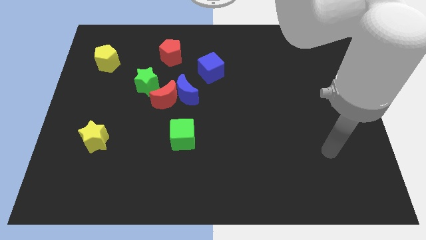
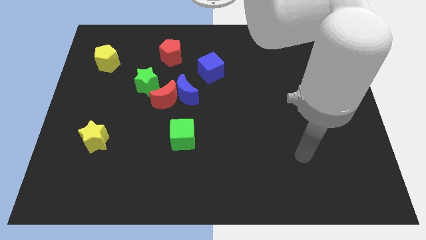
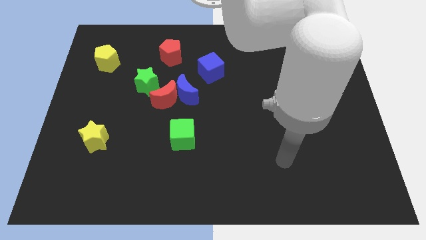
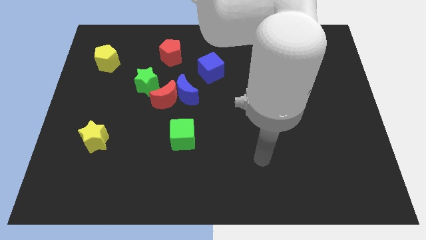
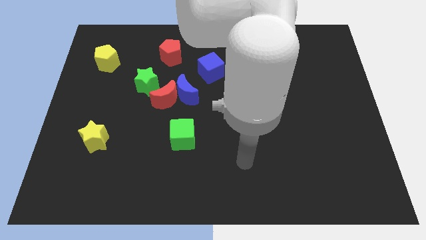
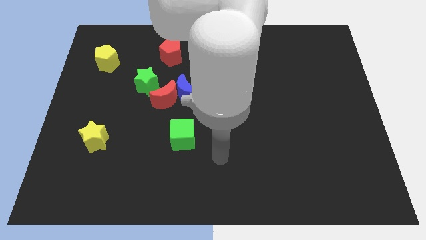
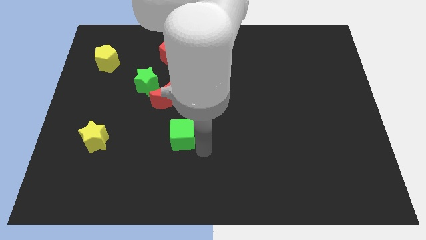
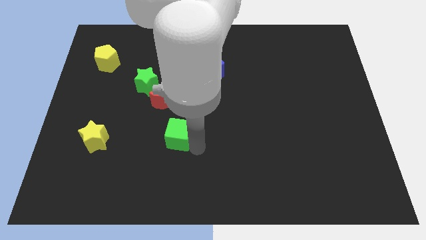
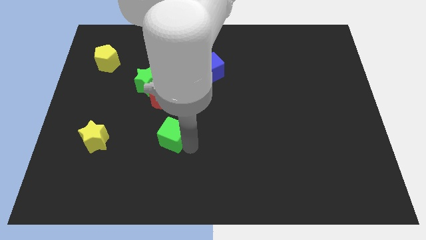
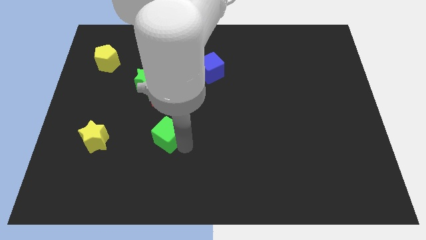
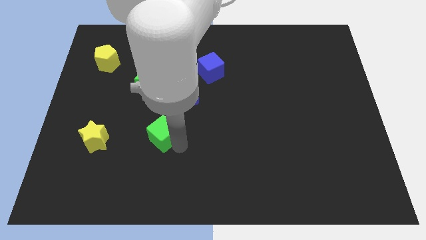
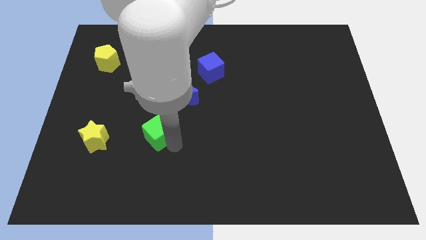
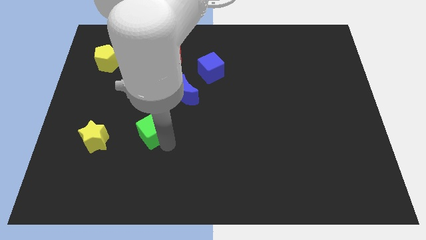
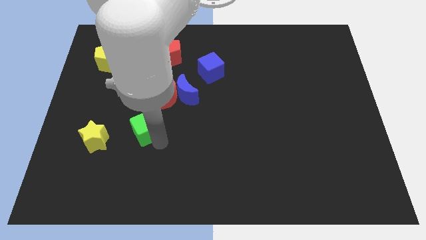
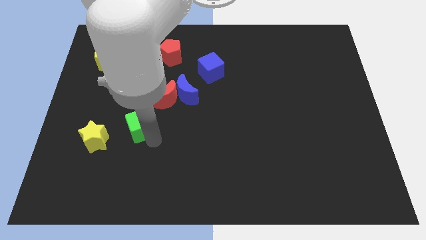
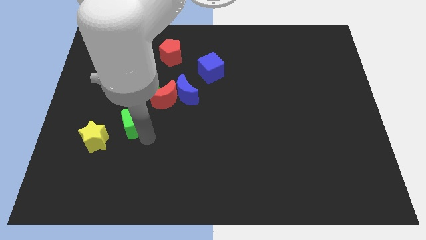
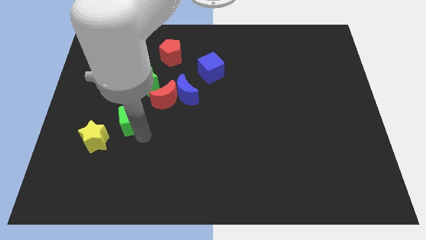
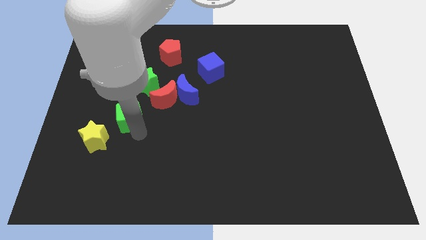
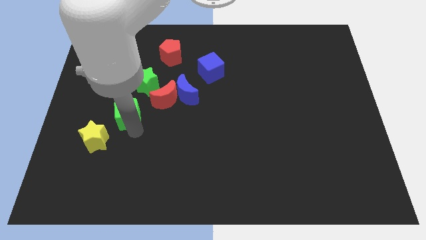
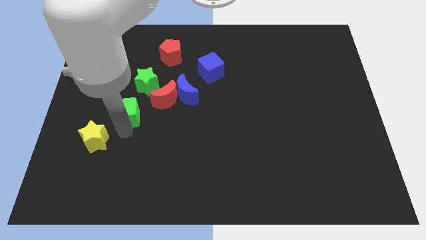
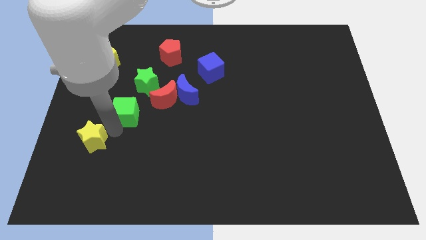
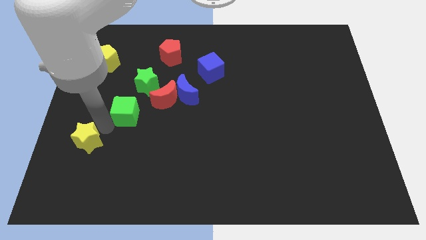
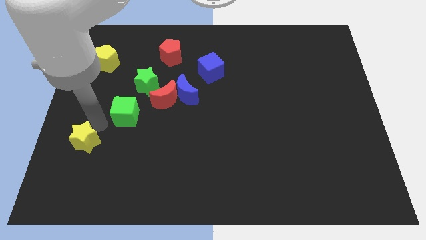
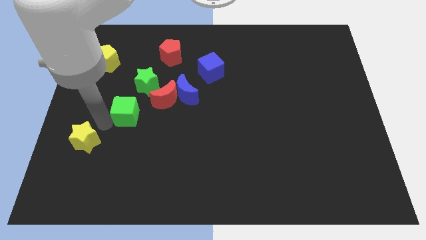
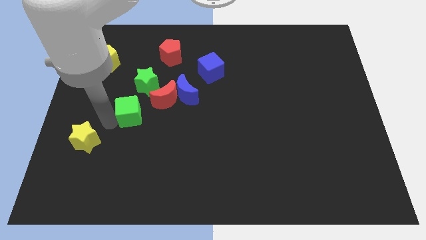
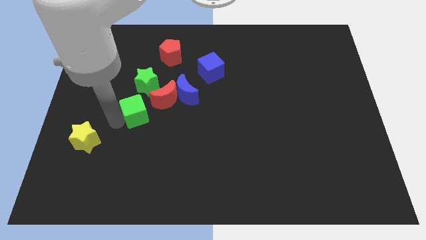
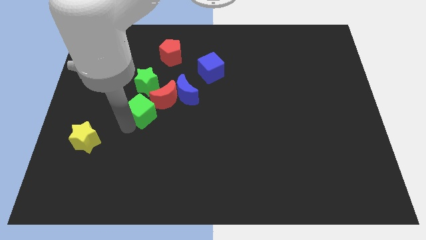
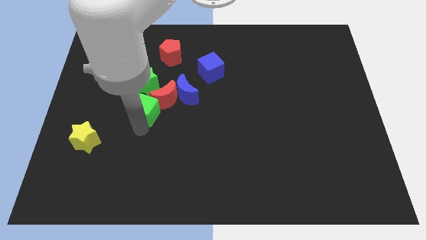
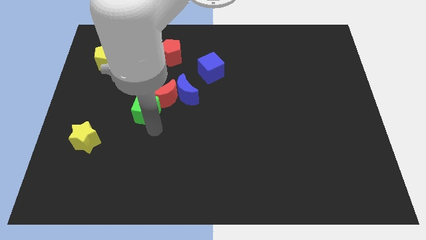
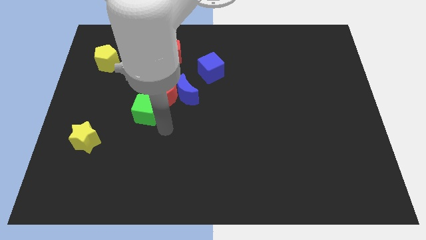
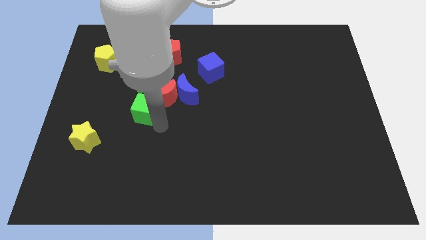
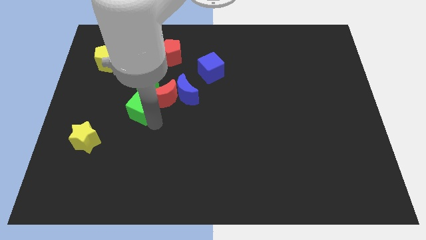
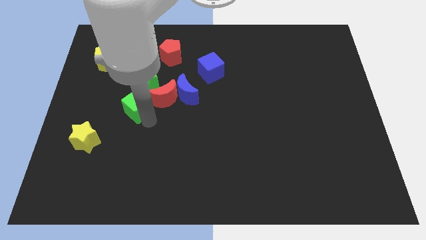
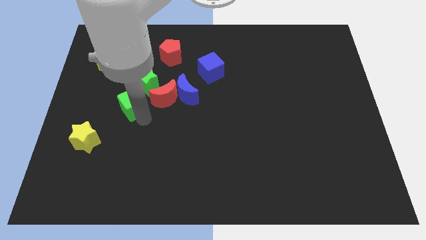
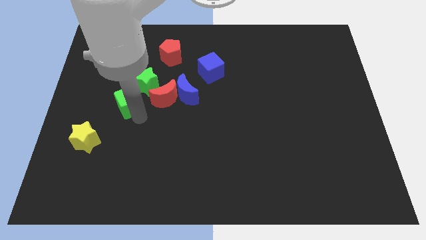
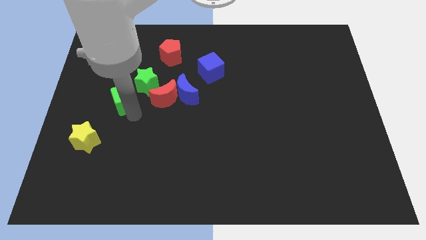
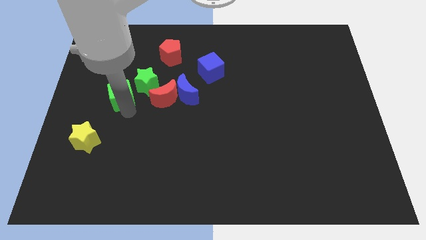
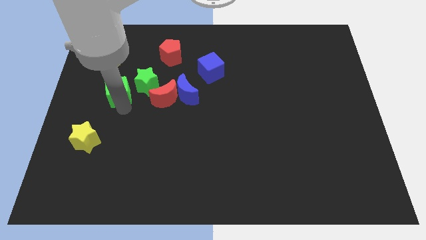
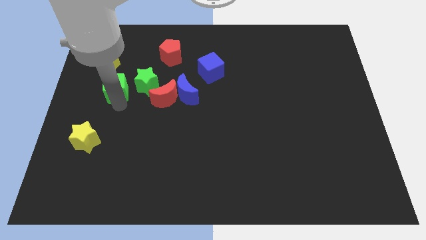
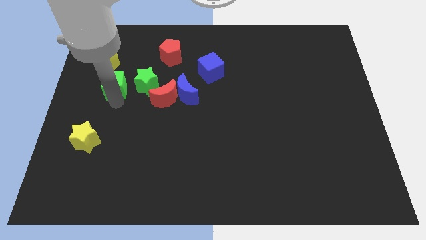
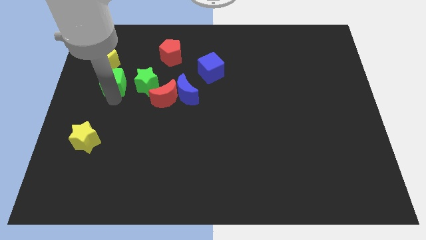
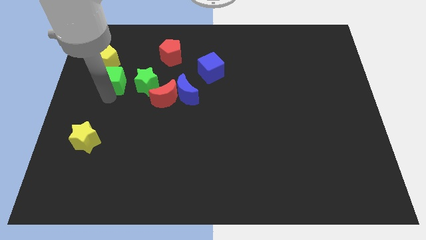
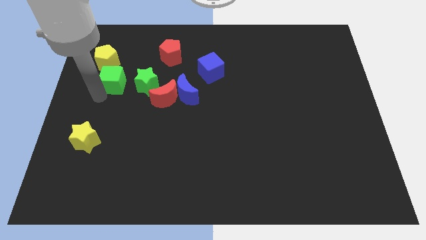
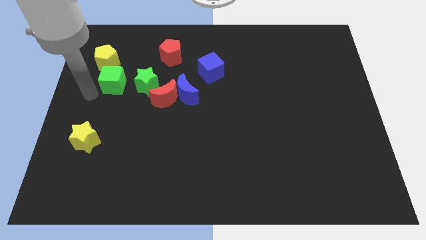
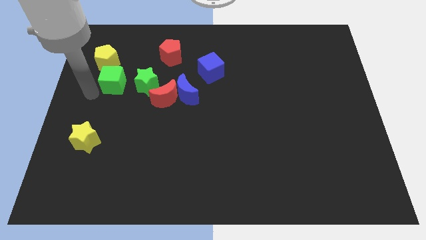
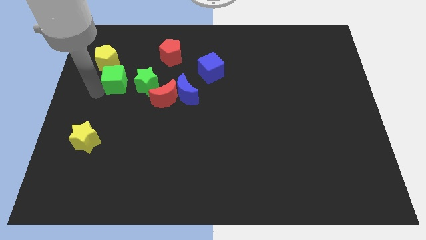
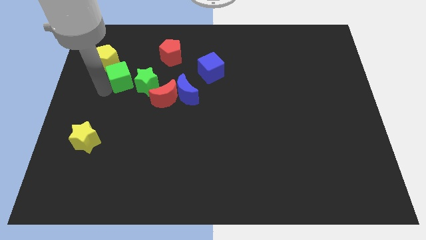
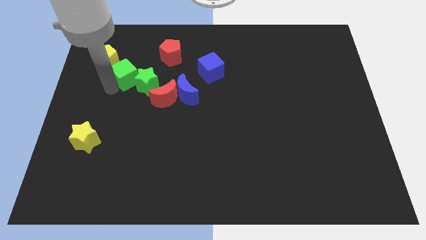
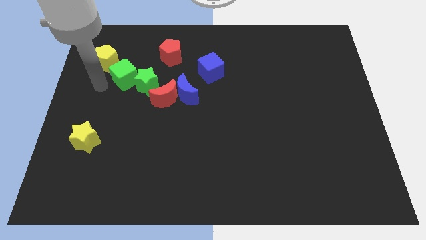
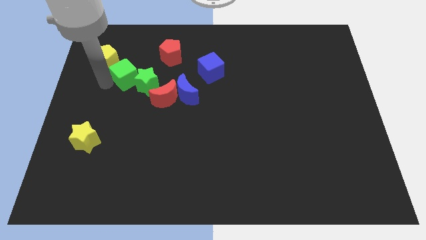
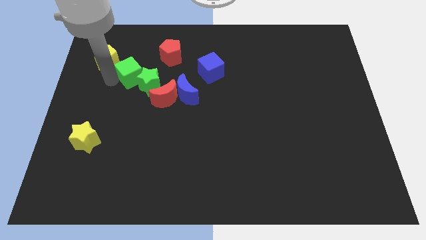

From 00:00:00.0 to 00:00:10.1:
move the green cube to the bottom left of the red pentagon

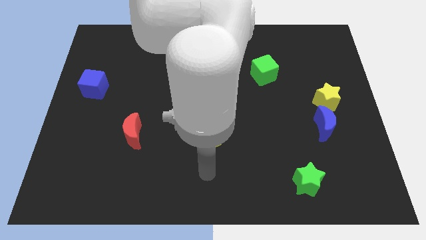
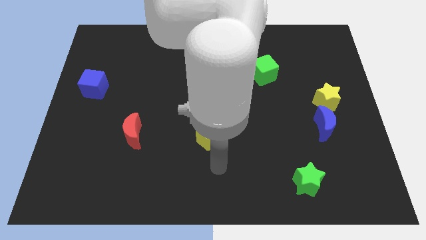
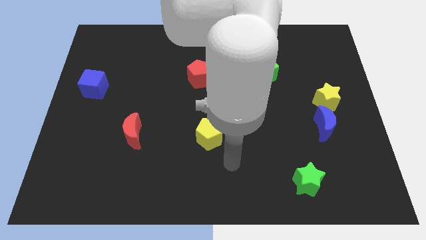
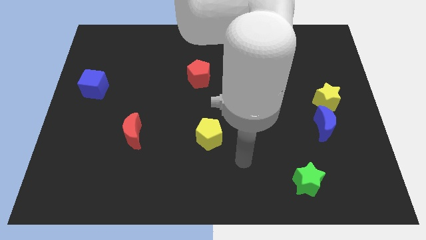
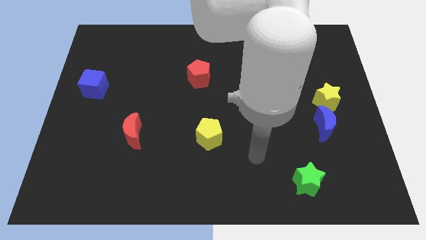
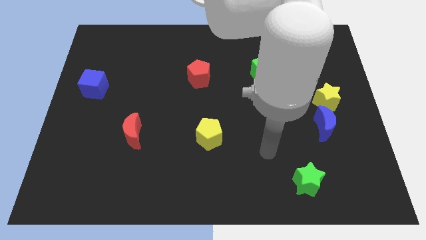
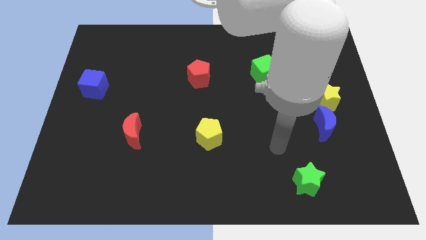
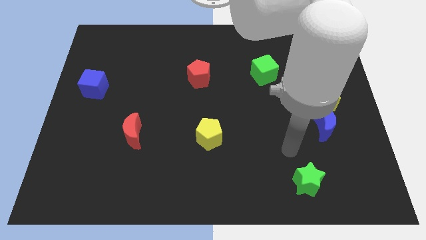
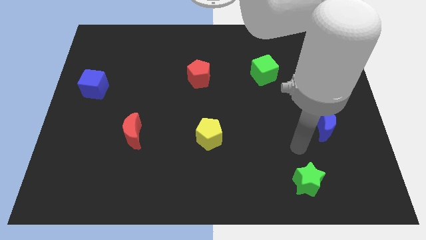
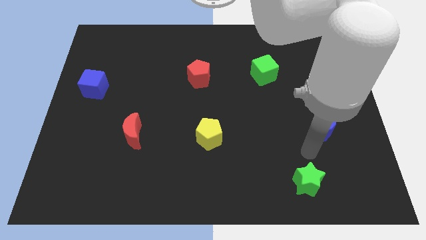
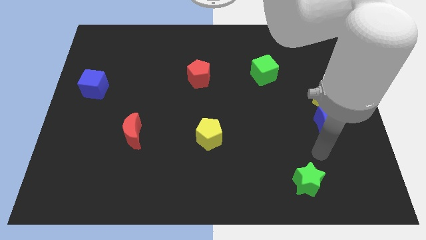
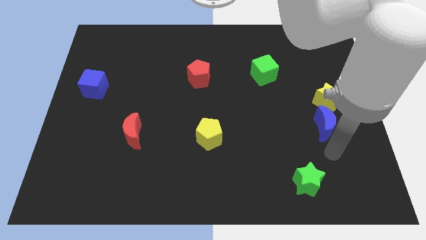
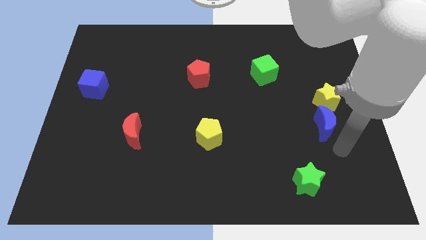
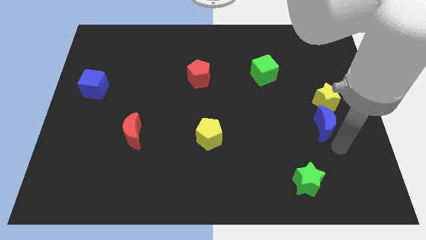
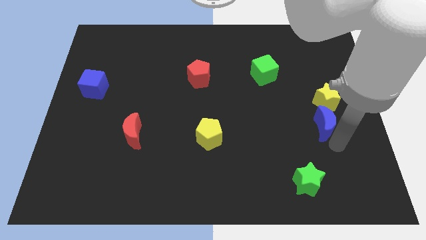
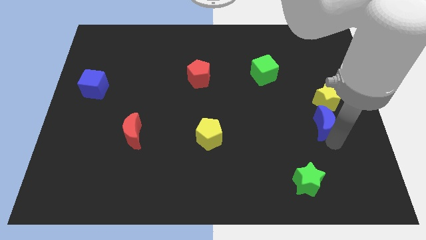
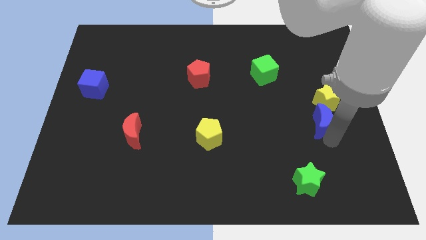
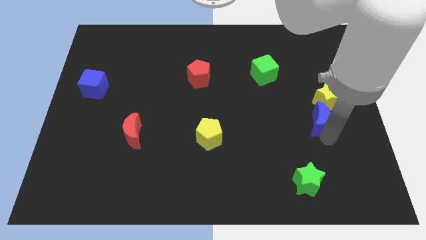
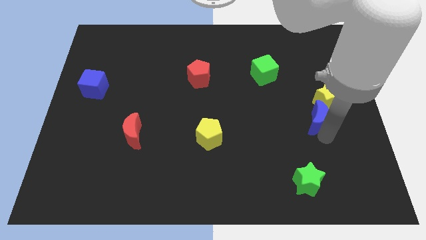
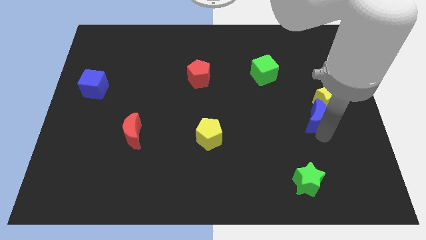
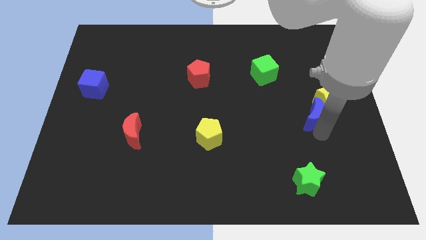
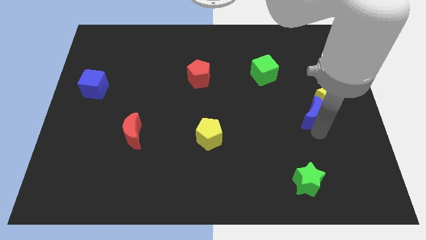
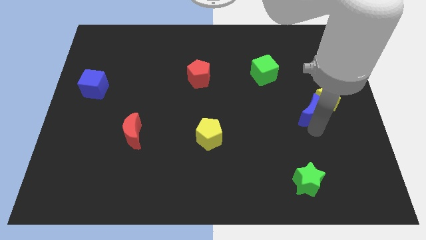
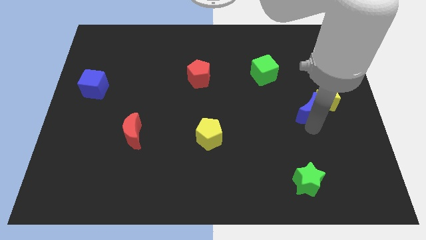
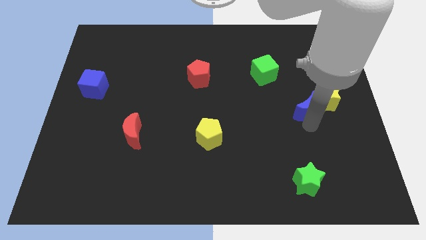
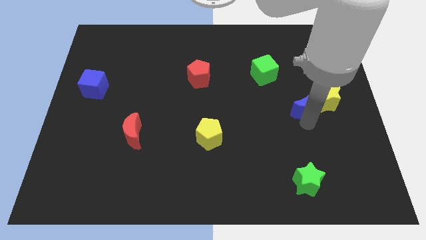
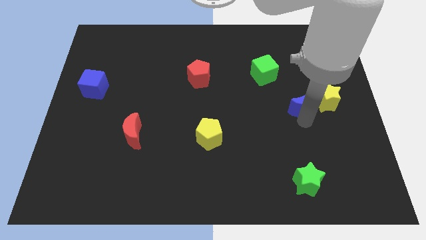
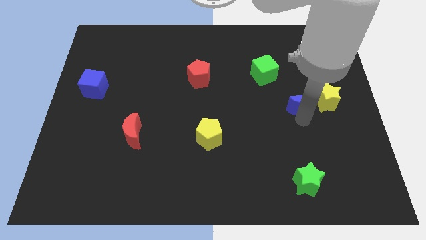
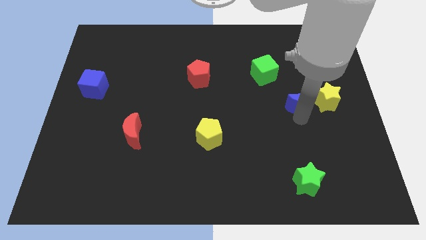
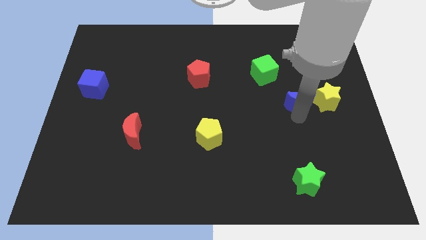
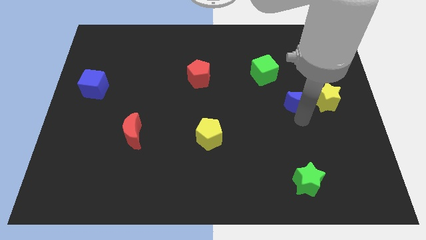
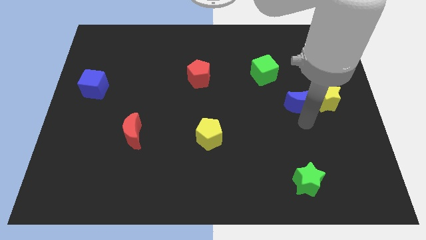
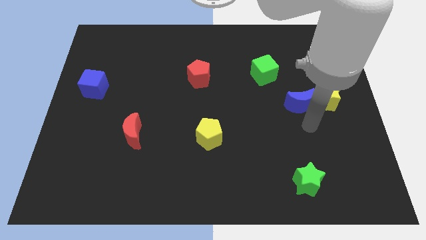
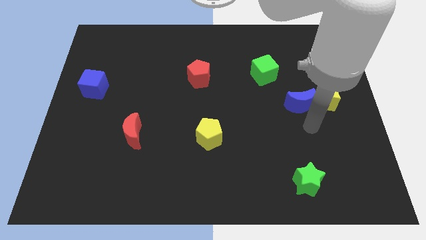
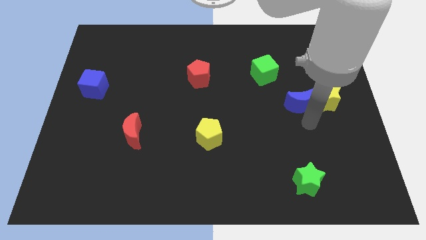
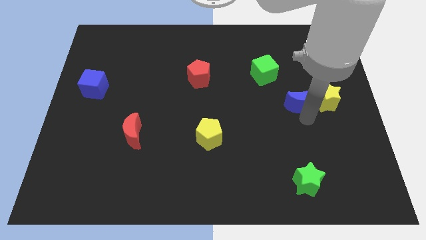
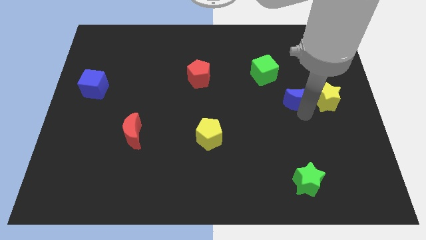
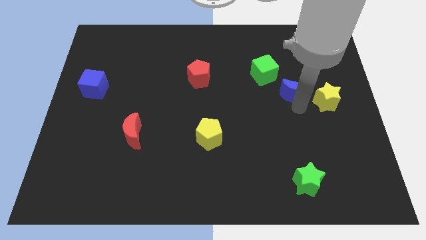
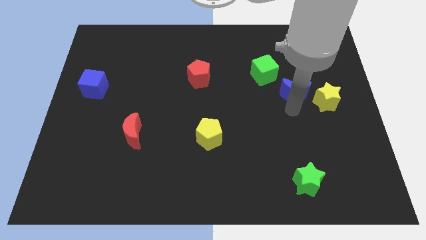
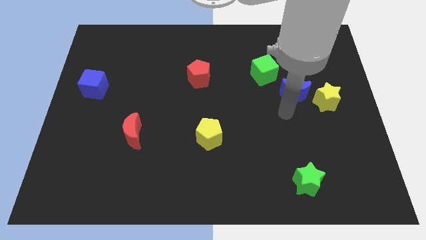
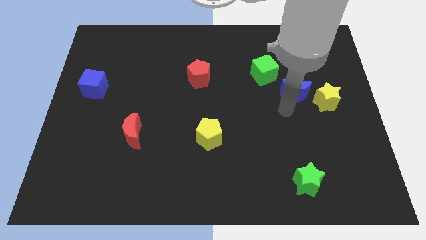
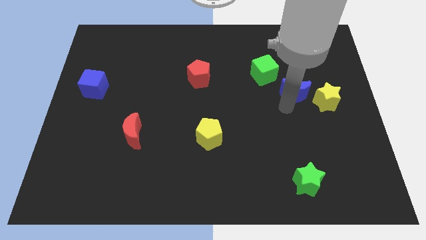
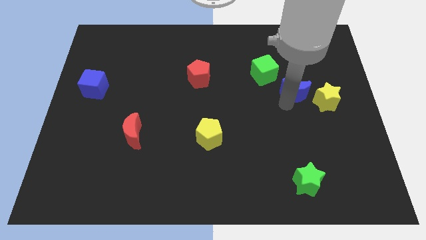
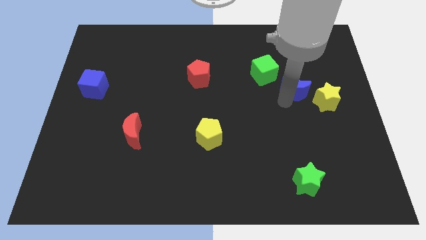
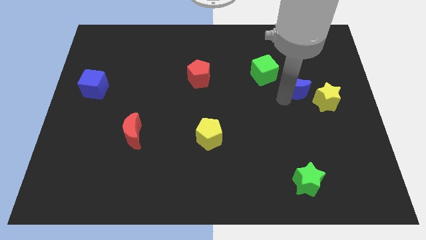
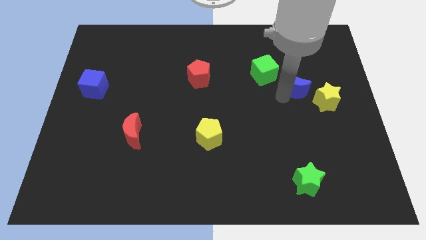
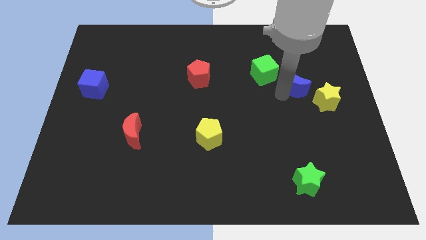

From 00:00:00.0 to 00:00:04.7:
move the blue moon right of the green cube
